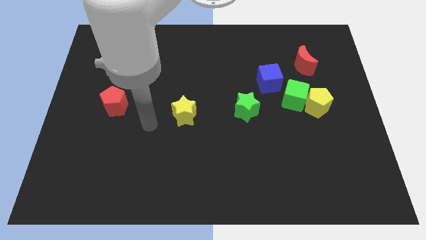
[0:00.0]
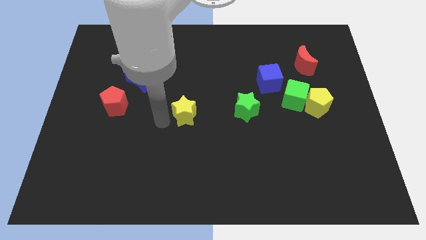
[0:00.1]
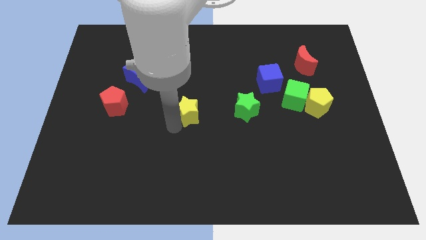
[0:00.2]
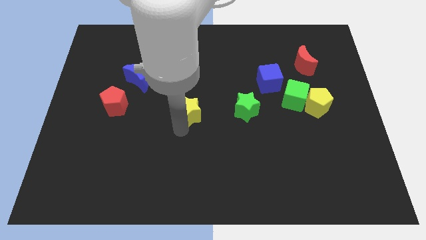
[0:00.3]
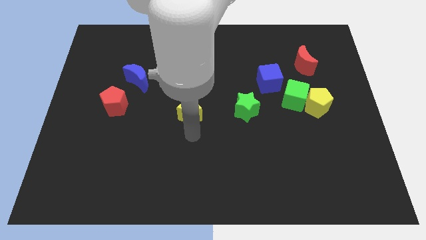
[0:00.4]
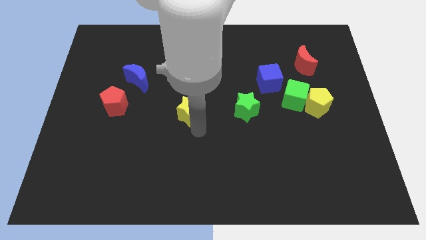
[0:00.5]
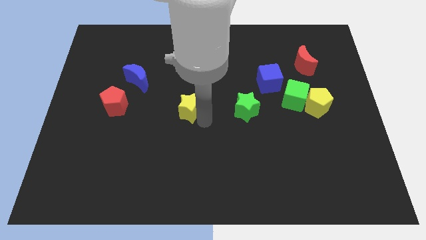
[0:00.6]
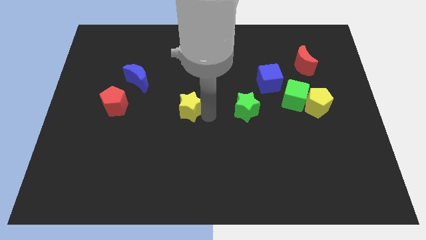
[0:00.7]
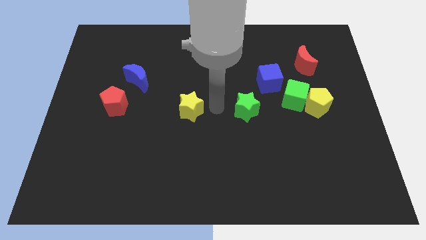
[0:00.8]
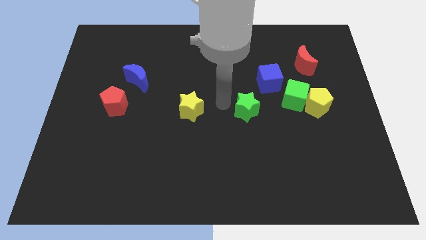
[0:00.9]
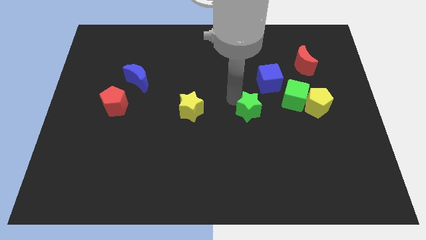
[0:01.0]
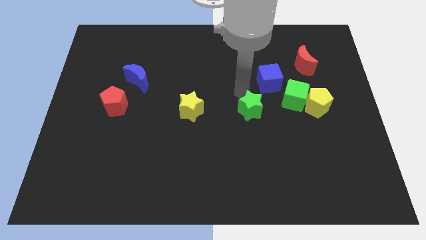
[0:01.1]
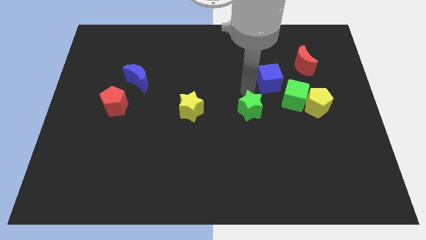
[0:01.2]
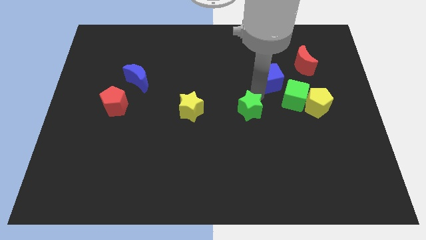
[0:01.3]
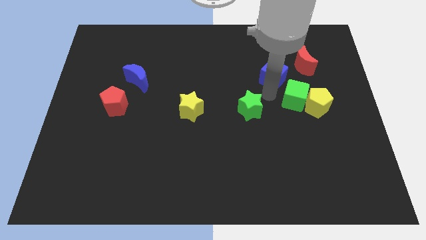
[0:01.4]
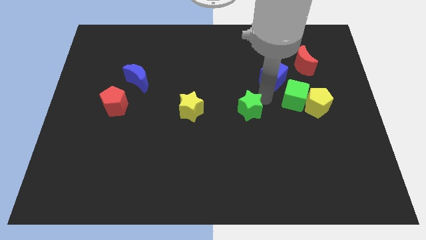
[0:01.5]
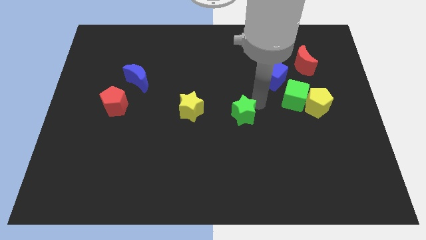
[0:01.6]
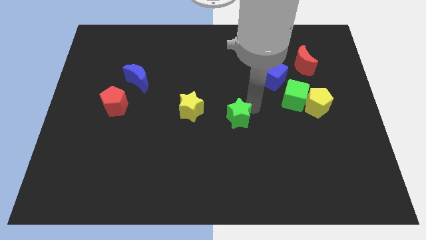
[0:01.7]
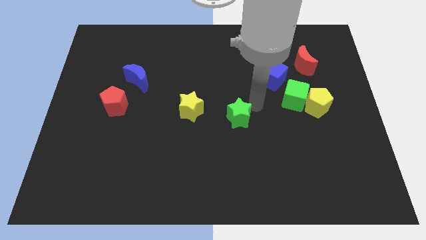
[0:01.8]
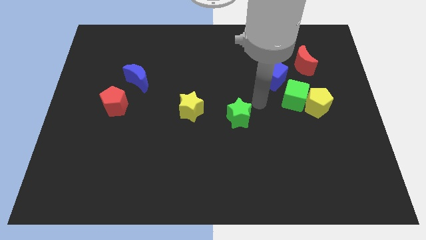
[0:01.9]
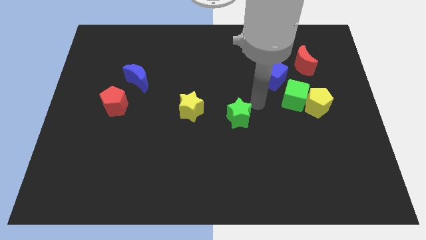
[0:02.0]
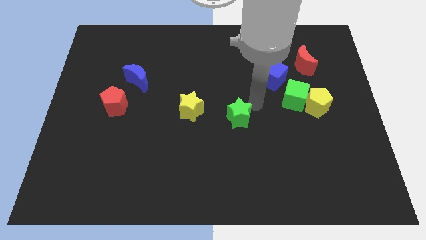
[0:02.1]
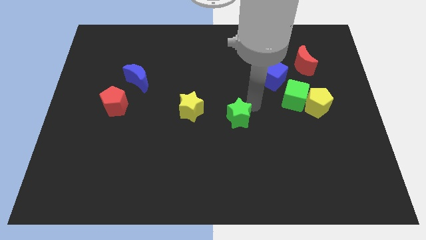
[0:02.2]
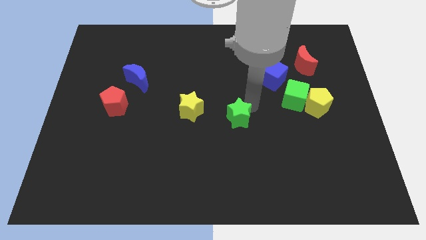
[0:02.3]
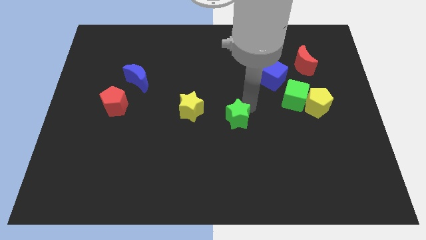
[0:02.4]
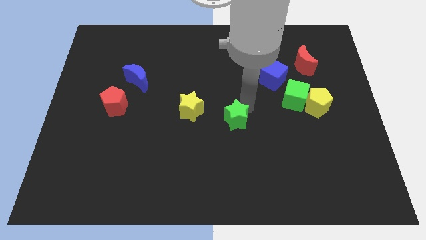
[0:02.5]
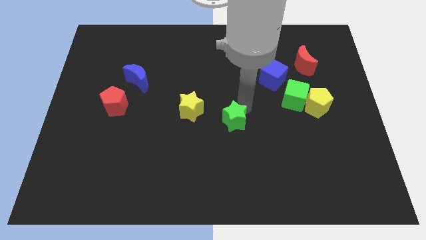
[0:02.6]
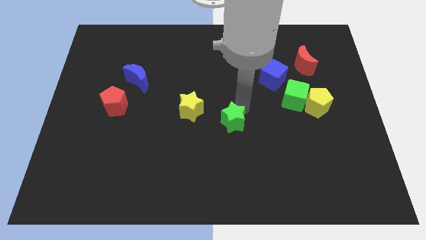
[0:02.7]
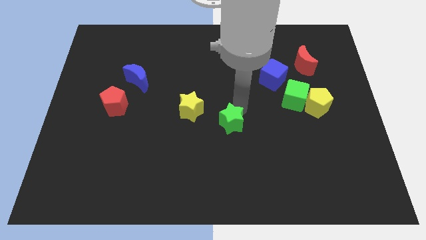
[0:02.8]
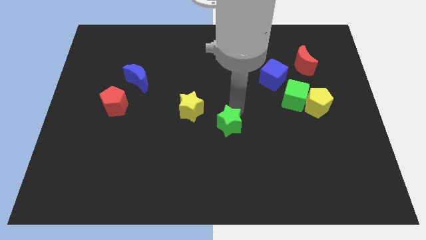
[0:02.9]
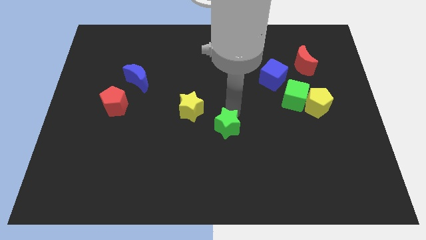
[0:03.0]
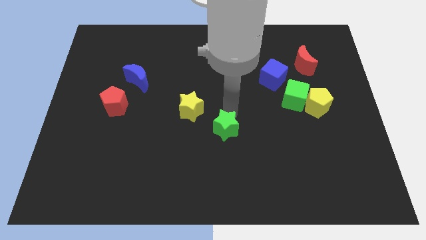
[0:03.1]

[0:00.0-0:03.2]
slightly slide the green star down and left

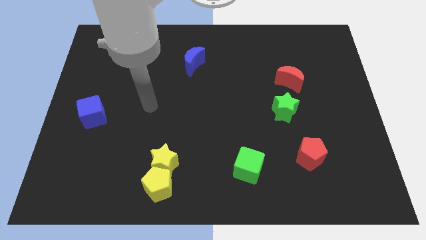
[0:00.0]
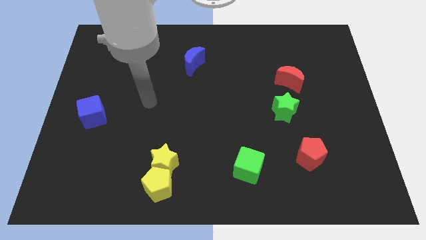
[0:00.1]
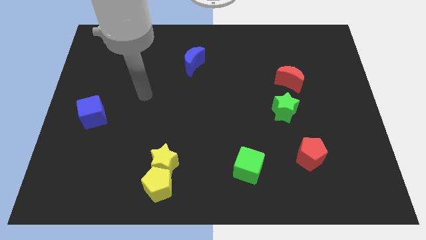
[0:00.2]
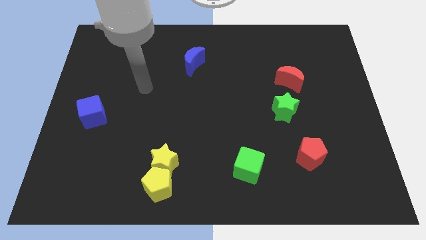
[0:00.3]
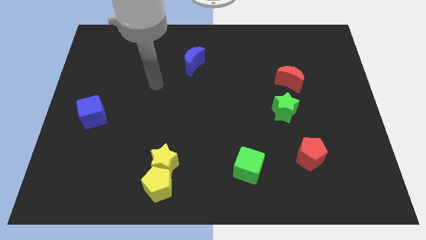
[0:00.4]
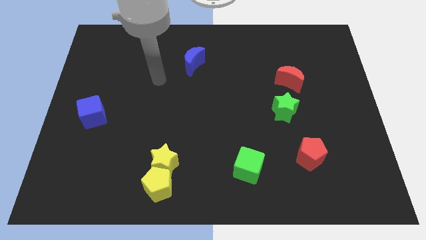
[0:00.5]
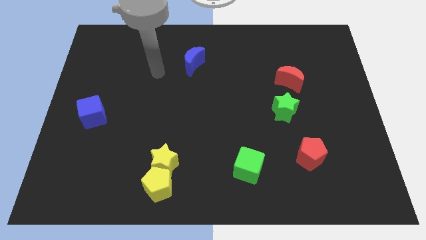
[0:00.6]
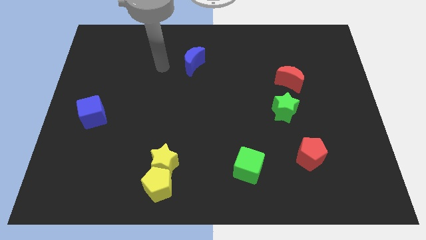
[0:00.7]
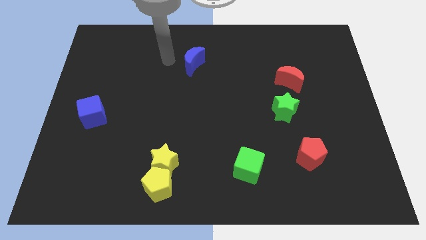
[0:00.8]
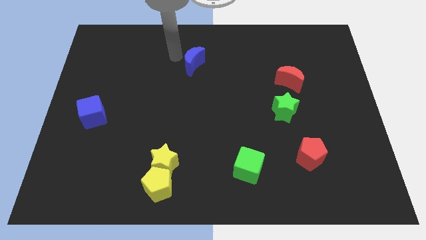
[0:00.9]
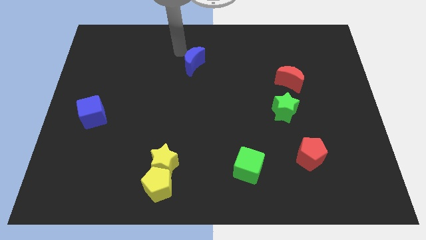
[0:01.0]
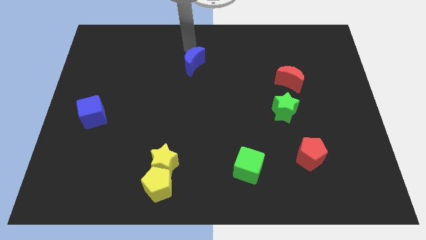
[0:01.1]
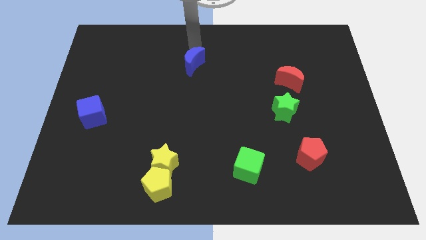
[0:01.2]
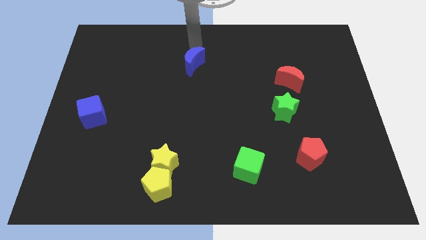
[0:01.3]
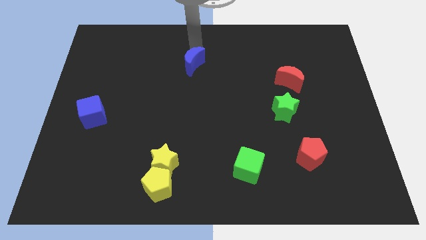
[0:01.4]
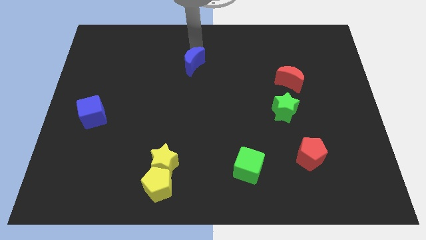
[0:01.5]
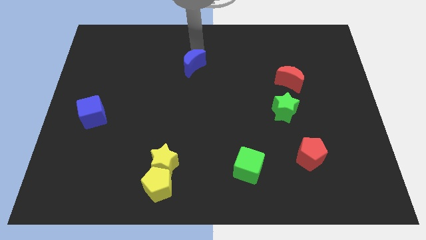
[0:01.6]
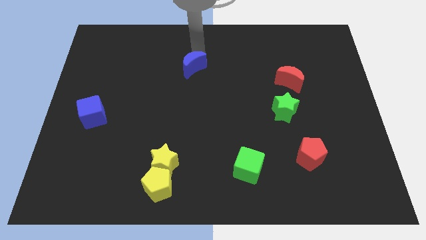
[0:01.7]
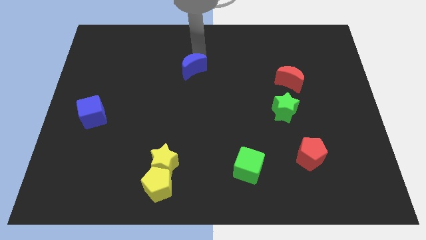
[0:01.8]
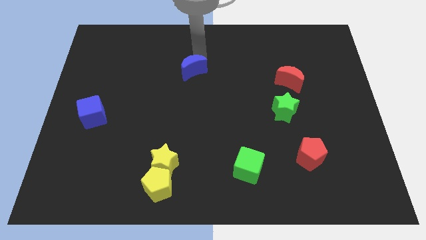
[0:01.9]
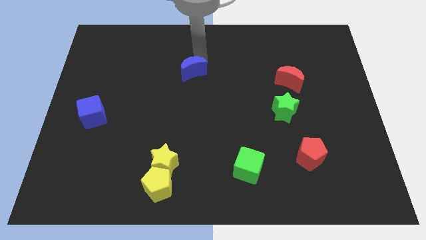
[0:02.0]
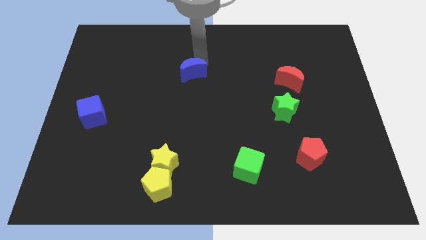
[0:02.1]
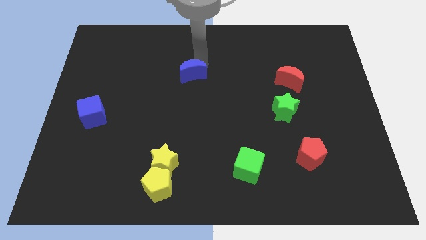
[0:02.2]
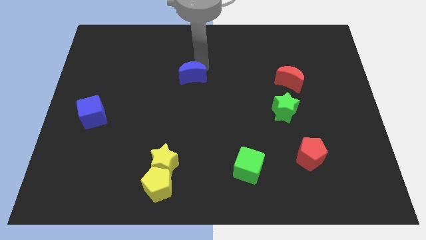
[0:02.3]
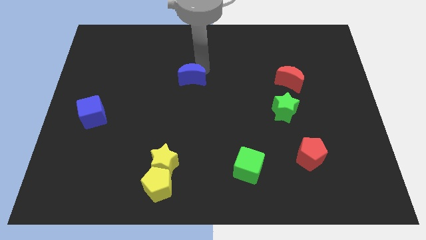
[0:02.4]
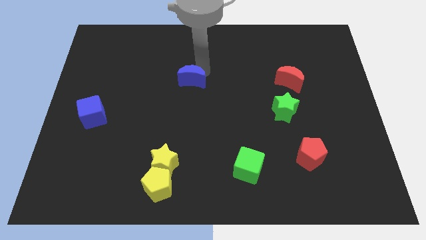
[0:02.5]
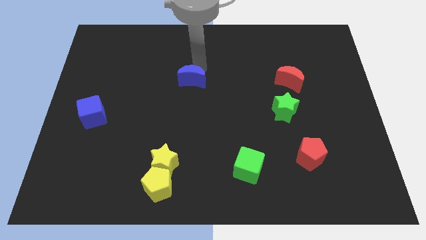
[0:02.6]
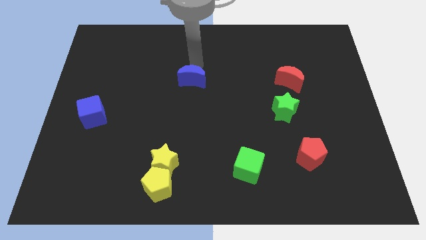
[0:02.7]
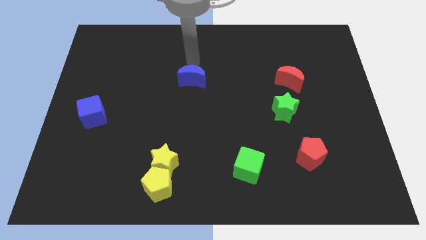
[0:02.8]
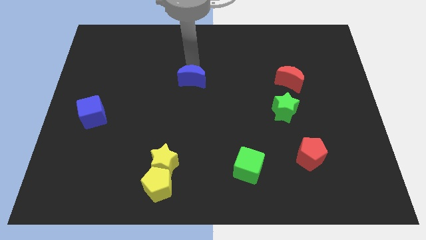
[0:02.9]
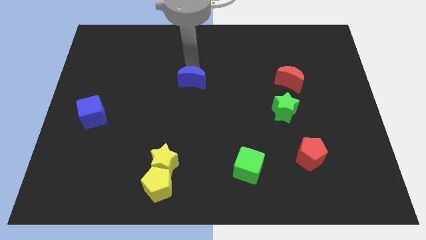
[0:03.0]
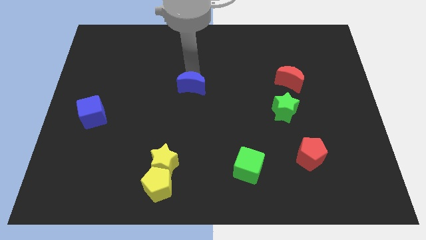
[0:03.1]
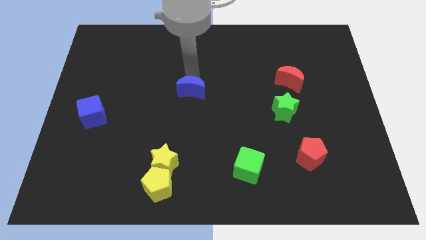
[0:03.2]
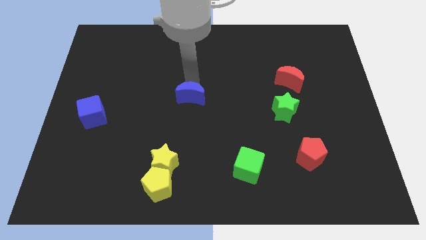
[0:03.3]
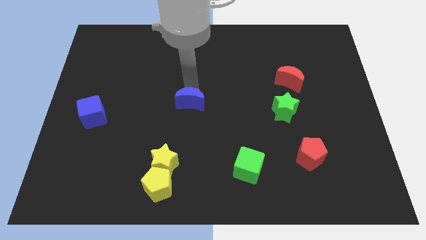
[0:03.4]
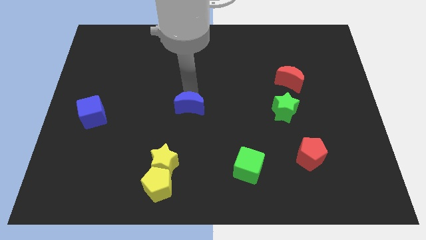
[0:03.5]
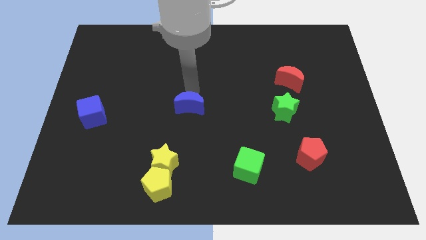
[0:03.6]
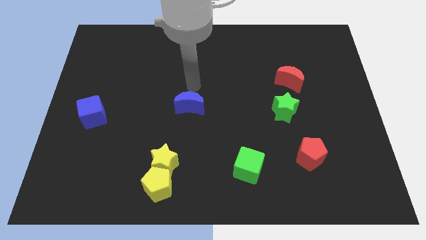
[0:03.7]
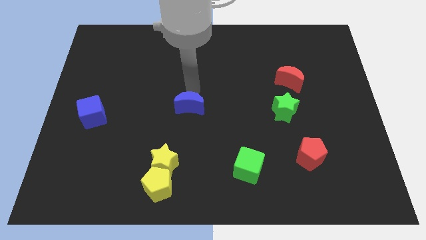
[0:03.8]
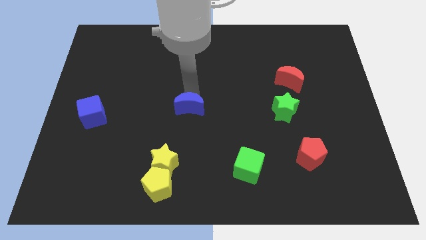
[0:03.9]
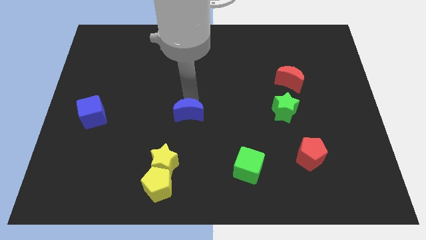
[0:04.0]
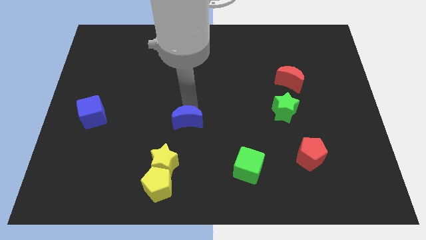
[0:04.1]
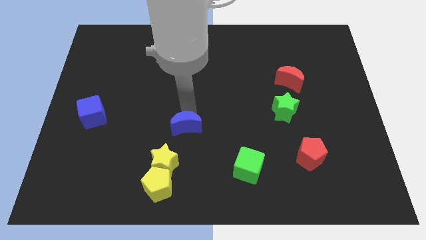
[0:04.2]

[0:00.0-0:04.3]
push the blue moon down

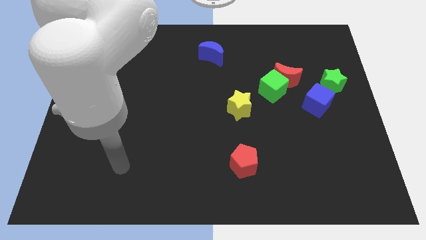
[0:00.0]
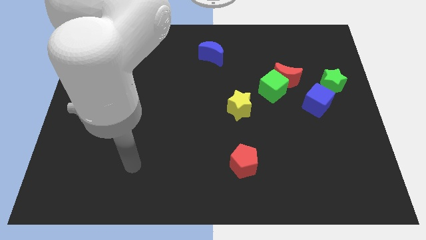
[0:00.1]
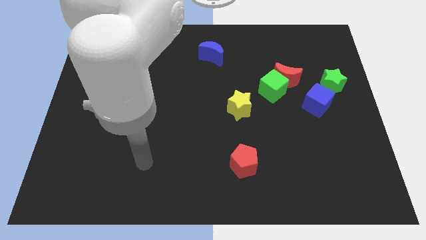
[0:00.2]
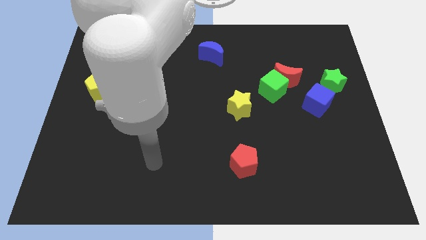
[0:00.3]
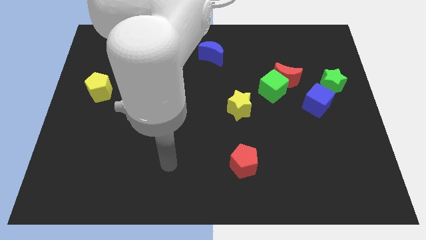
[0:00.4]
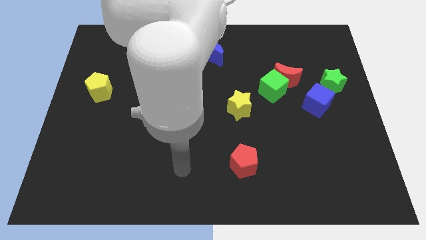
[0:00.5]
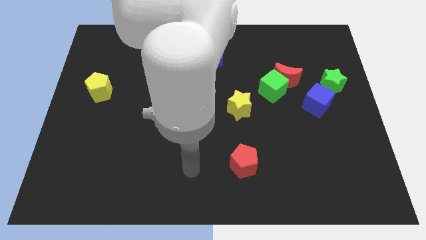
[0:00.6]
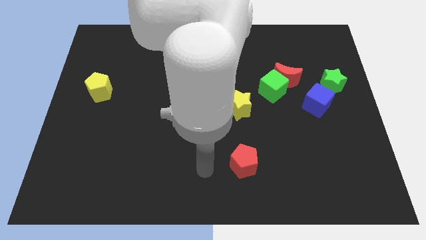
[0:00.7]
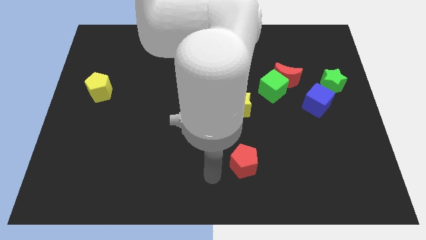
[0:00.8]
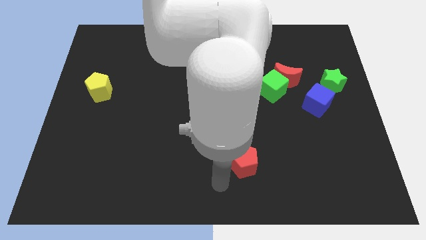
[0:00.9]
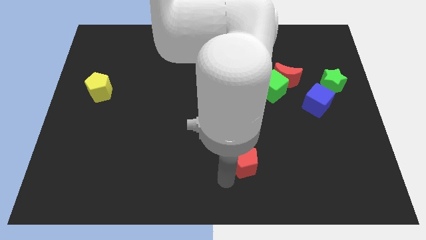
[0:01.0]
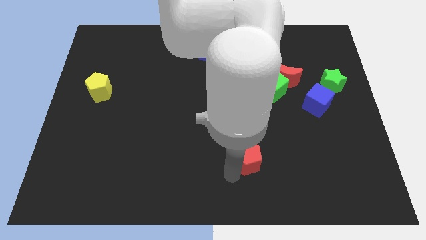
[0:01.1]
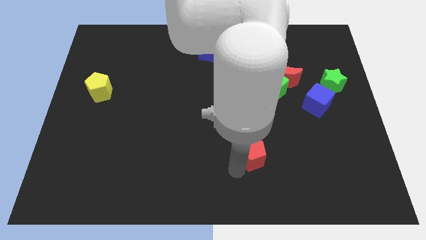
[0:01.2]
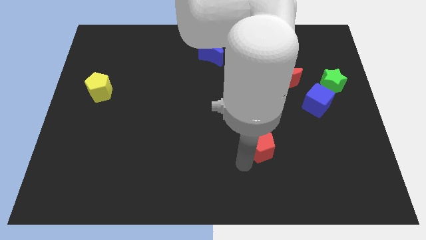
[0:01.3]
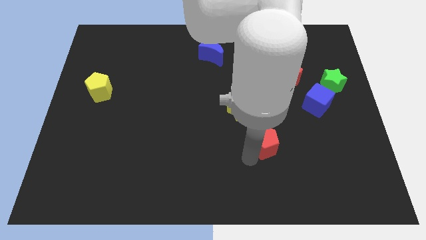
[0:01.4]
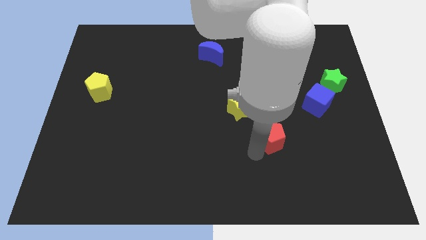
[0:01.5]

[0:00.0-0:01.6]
slightly move the red pentagon upwards and then right
